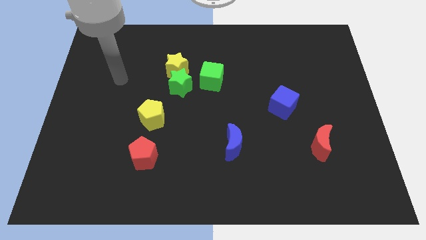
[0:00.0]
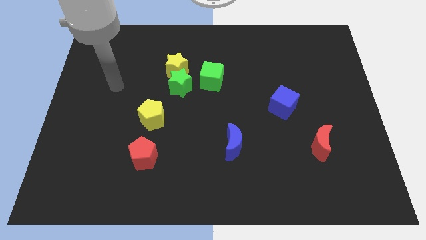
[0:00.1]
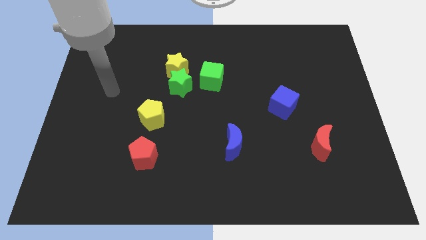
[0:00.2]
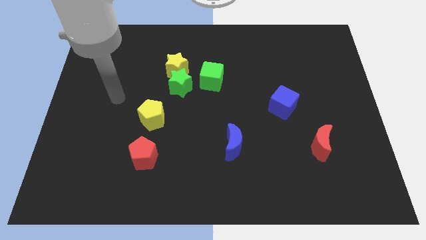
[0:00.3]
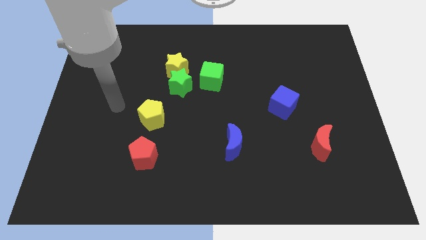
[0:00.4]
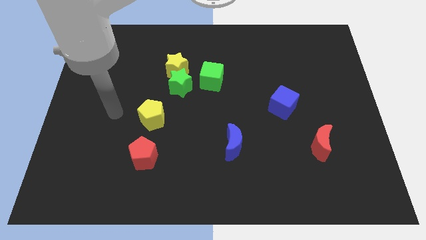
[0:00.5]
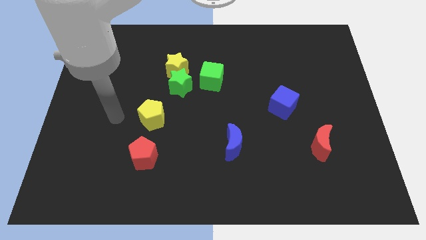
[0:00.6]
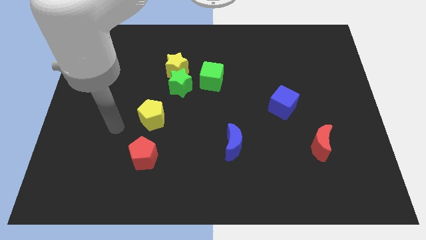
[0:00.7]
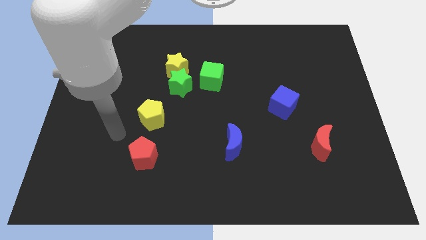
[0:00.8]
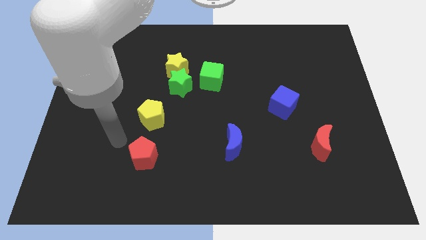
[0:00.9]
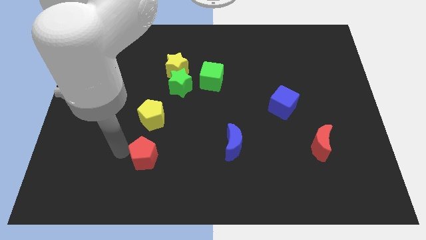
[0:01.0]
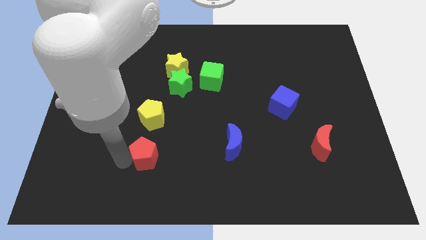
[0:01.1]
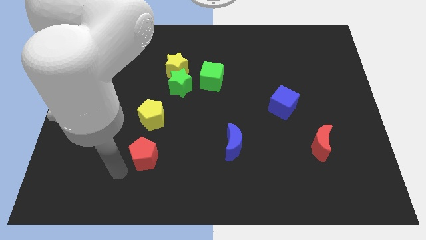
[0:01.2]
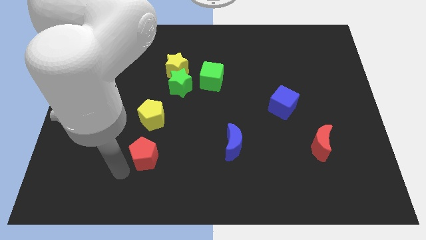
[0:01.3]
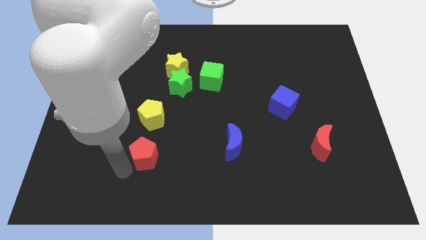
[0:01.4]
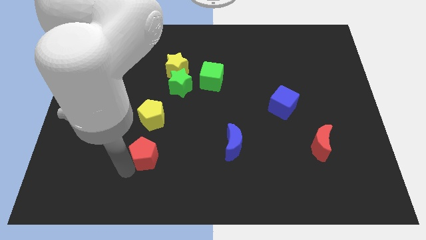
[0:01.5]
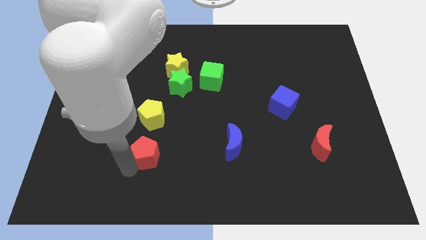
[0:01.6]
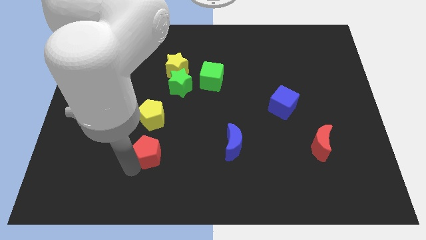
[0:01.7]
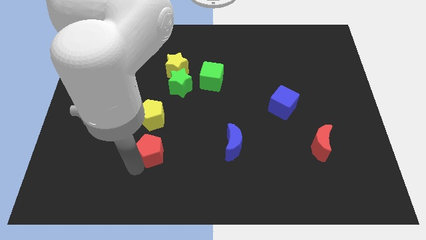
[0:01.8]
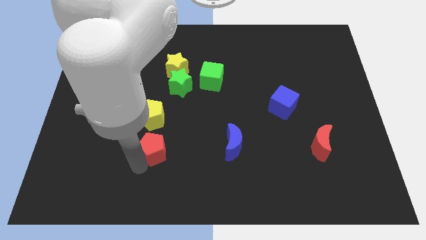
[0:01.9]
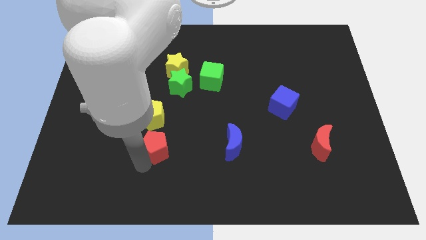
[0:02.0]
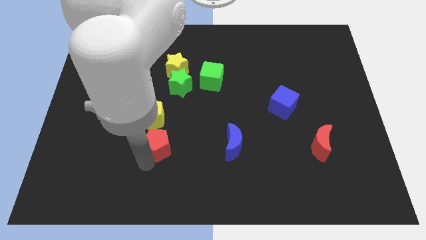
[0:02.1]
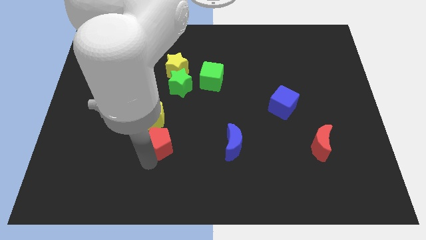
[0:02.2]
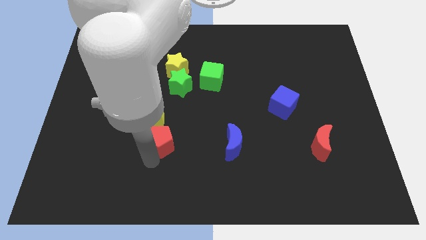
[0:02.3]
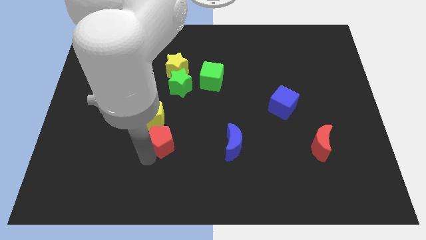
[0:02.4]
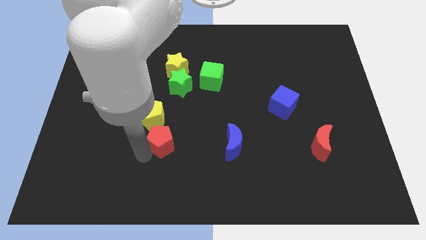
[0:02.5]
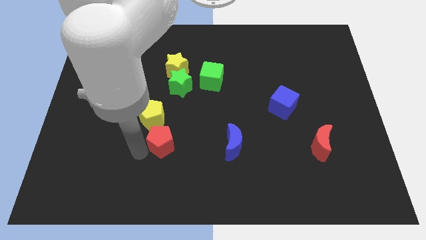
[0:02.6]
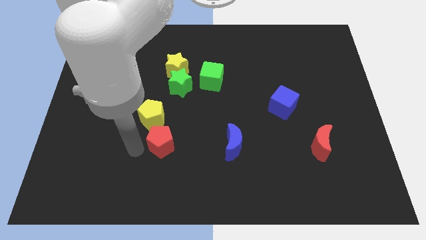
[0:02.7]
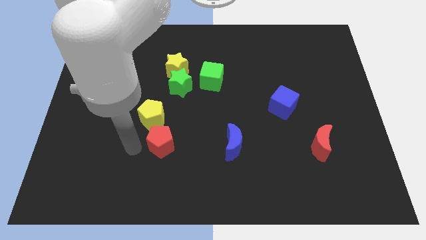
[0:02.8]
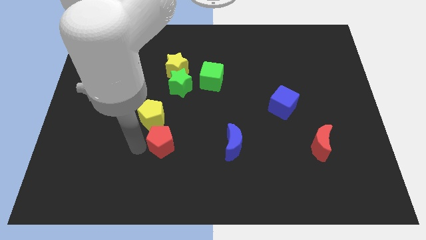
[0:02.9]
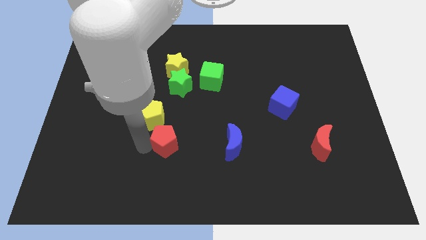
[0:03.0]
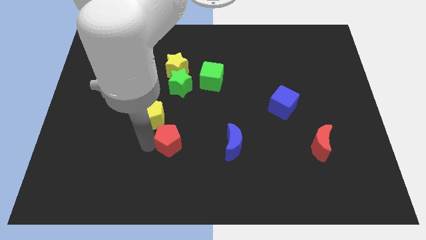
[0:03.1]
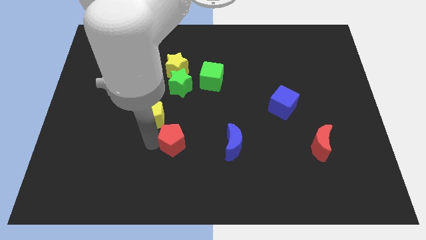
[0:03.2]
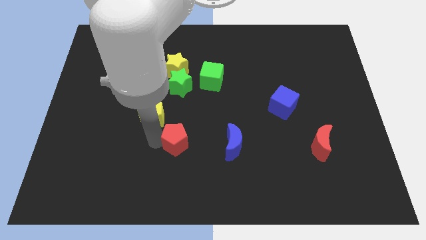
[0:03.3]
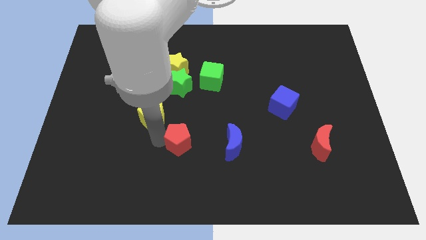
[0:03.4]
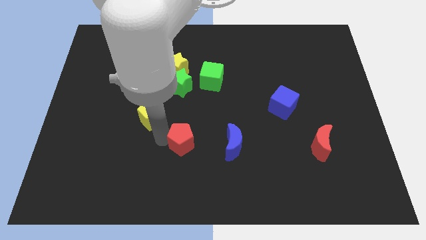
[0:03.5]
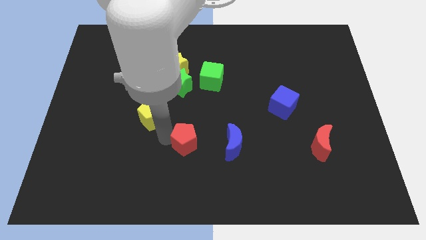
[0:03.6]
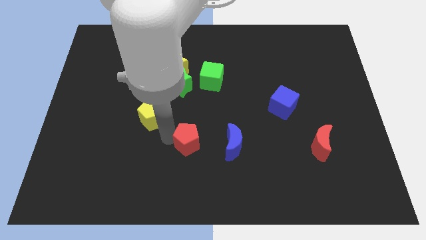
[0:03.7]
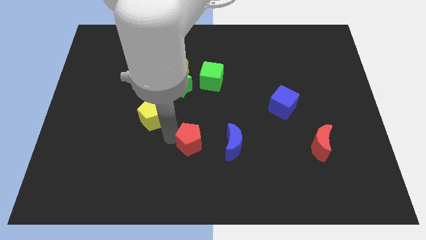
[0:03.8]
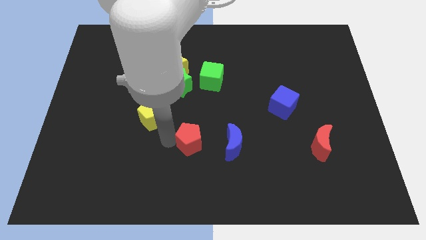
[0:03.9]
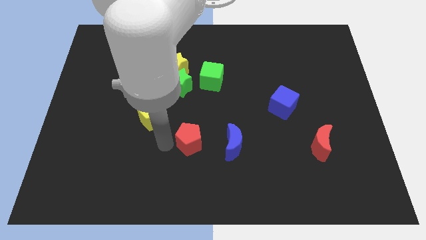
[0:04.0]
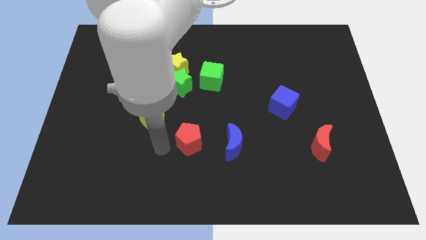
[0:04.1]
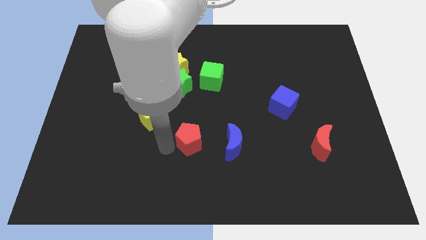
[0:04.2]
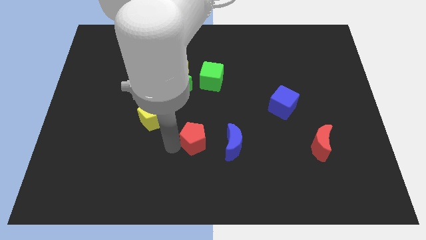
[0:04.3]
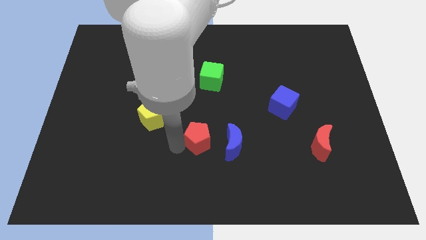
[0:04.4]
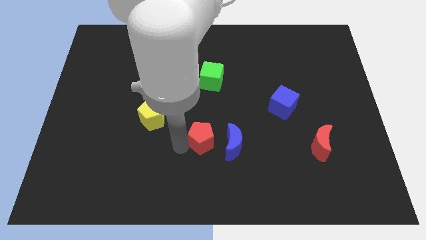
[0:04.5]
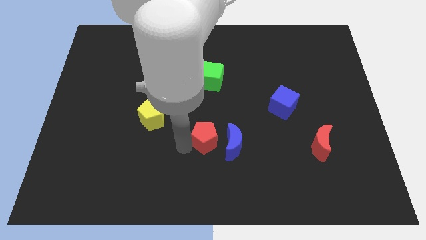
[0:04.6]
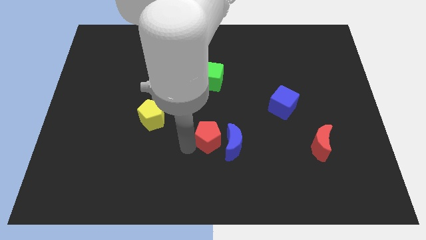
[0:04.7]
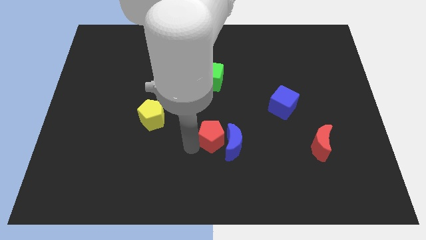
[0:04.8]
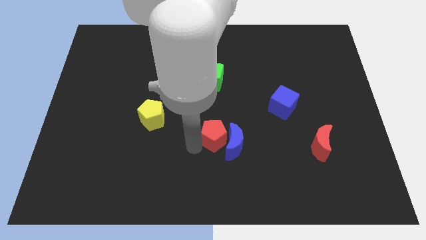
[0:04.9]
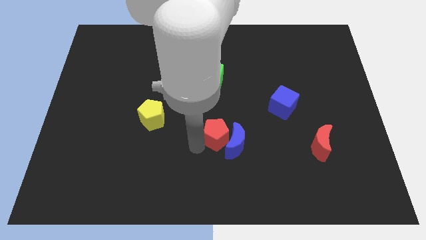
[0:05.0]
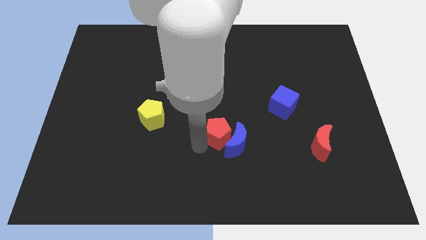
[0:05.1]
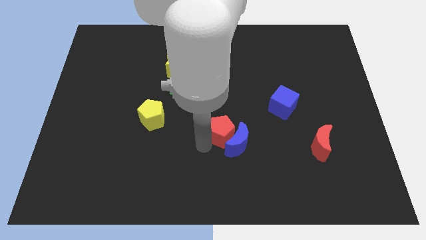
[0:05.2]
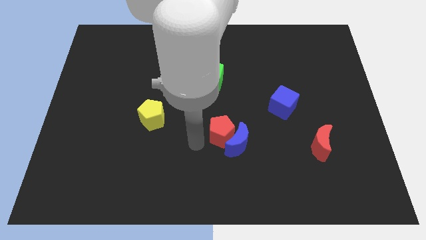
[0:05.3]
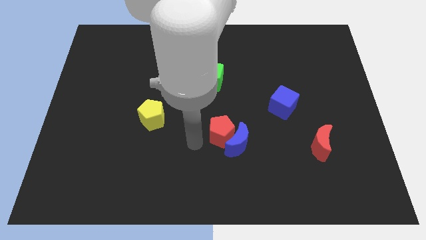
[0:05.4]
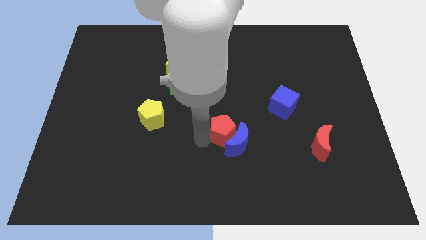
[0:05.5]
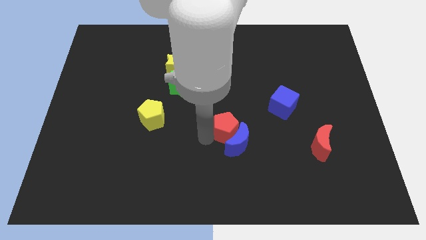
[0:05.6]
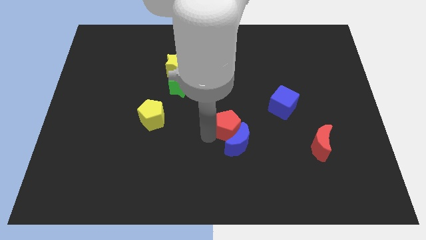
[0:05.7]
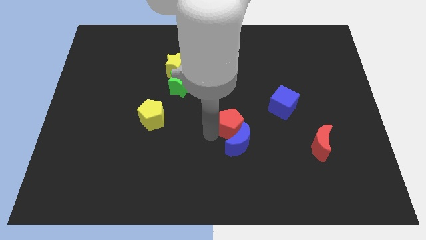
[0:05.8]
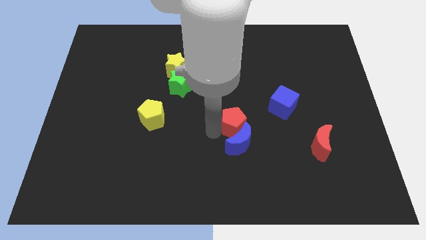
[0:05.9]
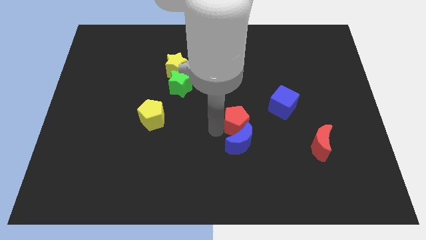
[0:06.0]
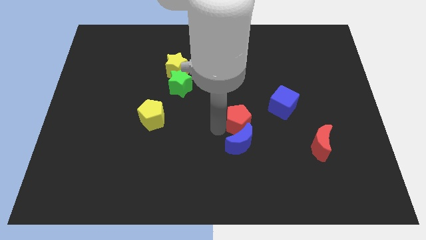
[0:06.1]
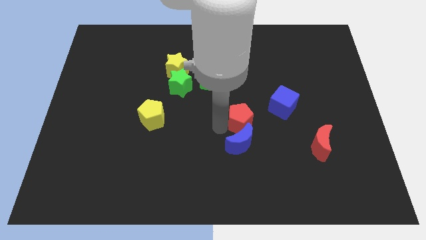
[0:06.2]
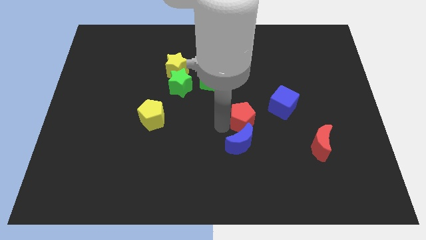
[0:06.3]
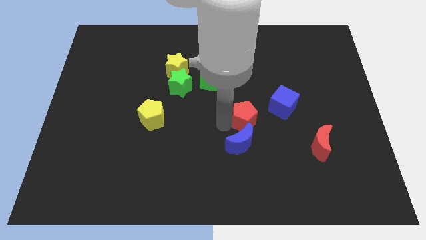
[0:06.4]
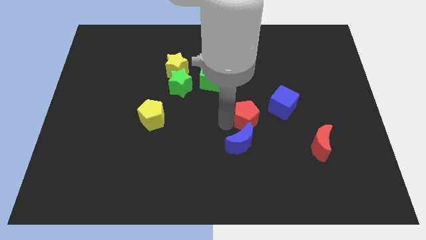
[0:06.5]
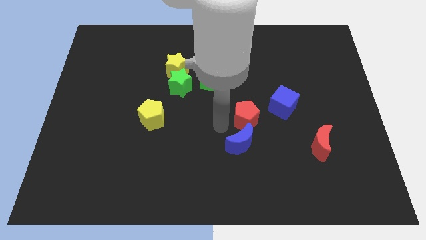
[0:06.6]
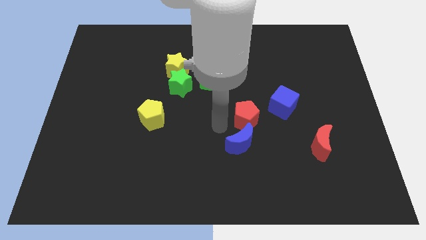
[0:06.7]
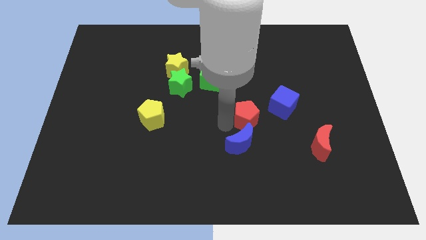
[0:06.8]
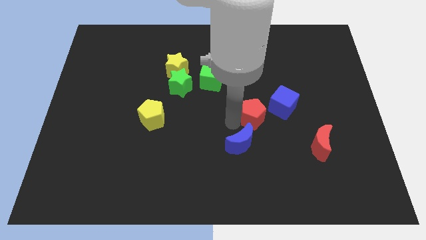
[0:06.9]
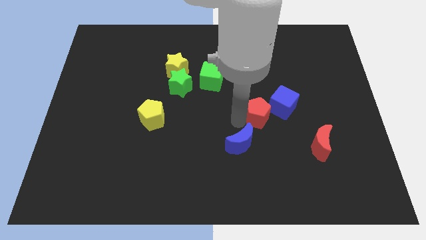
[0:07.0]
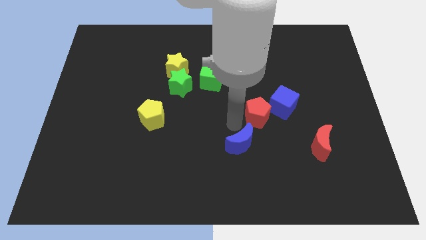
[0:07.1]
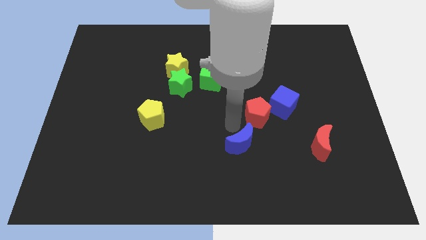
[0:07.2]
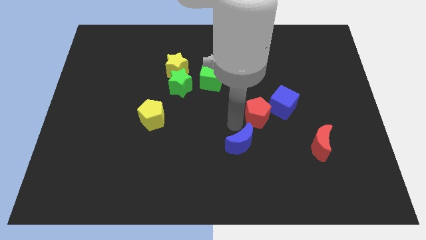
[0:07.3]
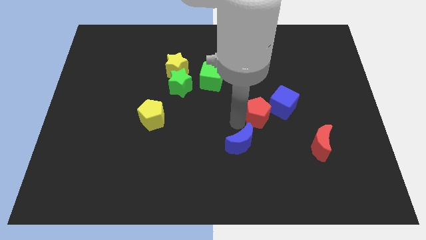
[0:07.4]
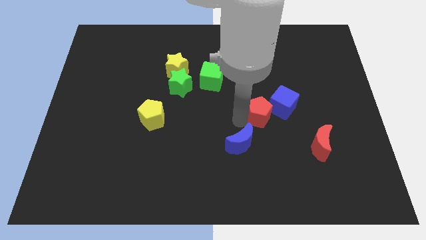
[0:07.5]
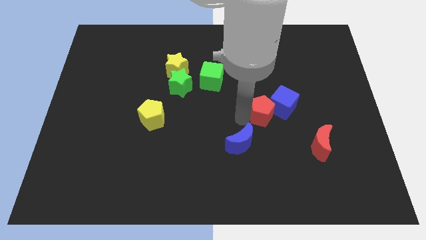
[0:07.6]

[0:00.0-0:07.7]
move the red pentagon to the blue cube
